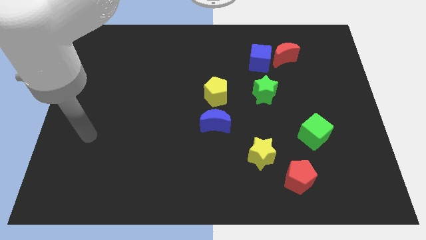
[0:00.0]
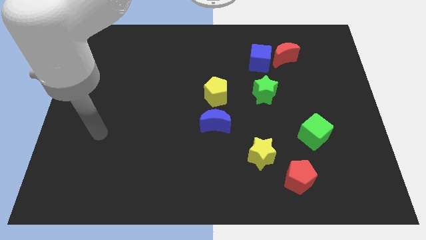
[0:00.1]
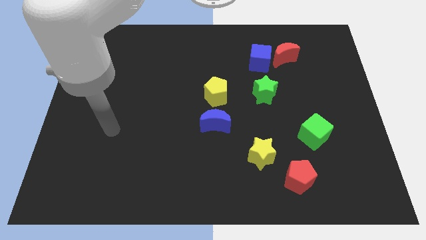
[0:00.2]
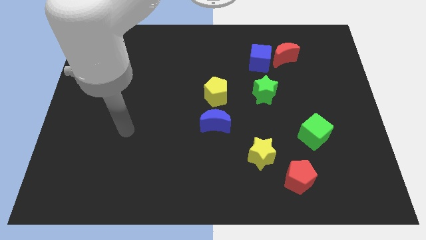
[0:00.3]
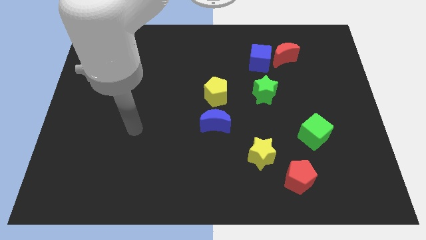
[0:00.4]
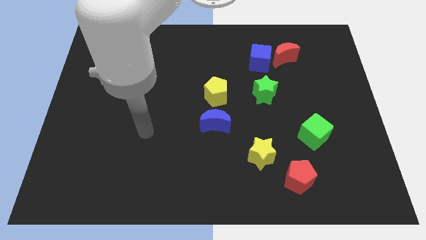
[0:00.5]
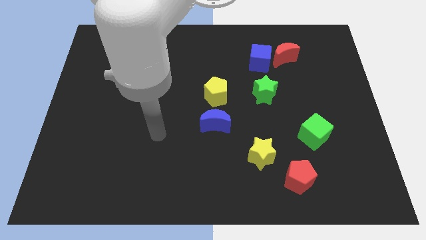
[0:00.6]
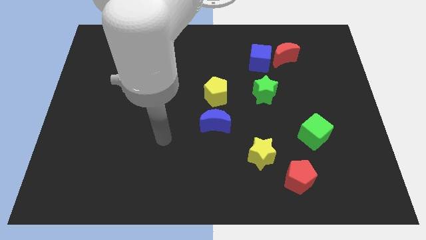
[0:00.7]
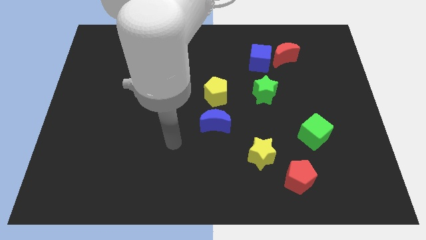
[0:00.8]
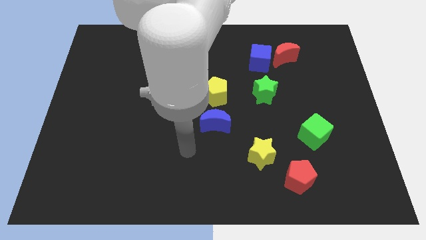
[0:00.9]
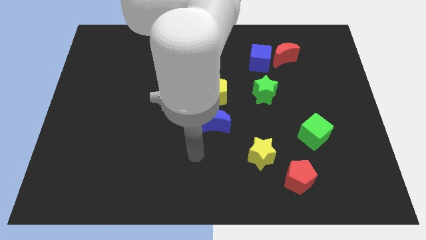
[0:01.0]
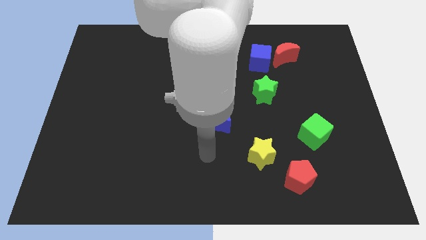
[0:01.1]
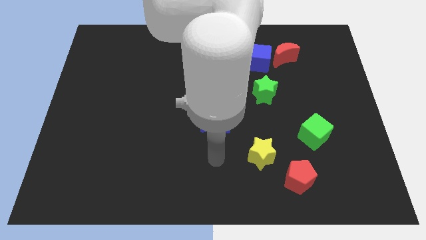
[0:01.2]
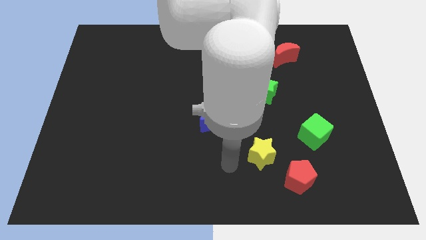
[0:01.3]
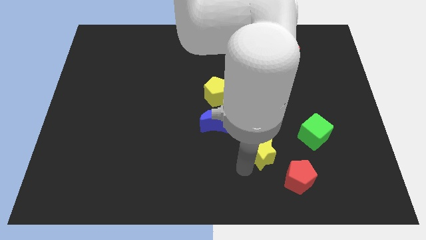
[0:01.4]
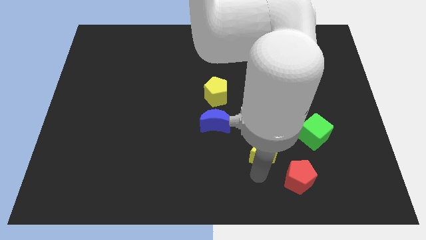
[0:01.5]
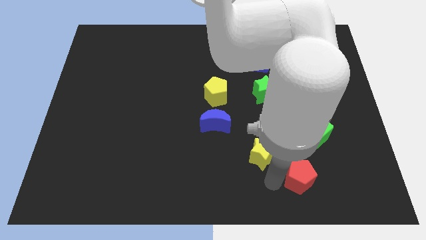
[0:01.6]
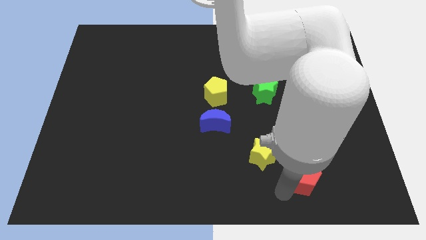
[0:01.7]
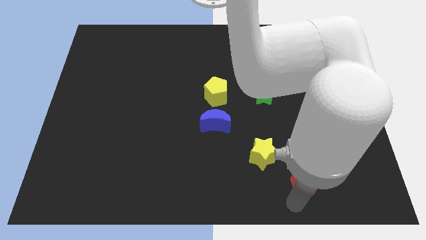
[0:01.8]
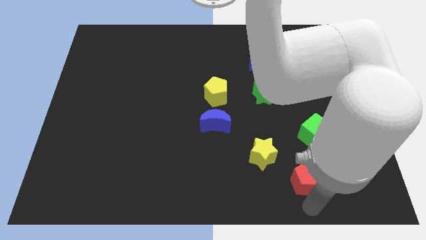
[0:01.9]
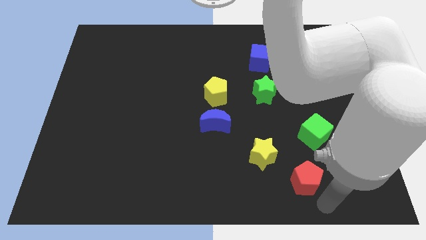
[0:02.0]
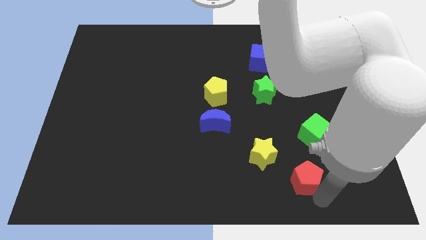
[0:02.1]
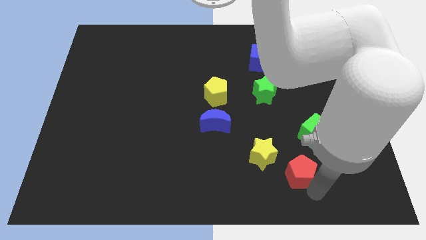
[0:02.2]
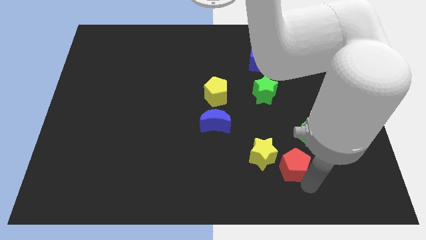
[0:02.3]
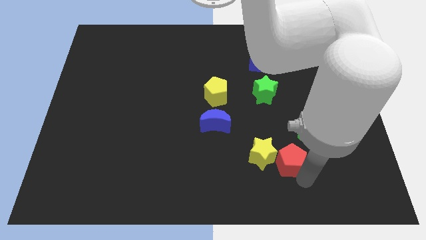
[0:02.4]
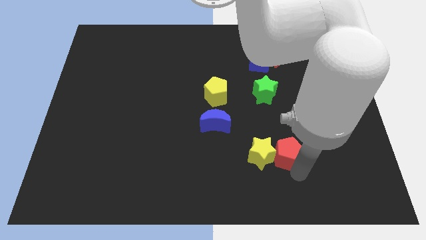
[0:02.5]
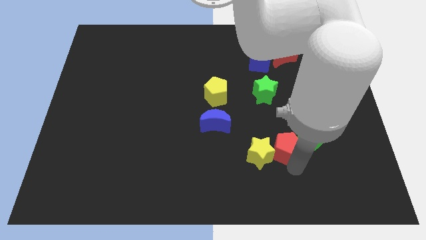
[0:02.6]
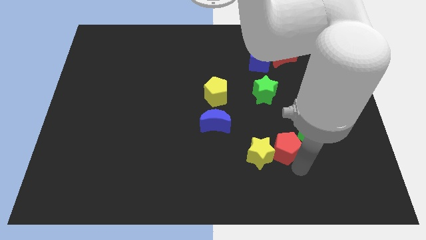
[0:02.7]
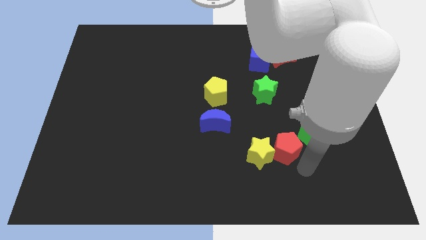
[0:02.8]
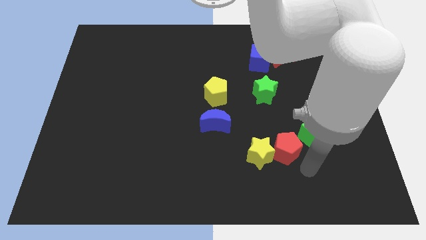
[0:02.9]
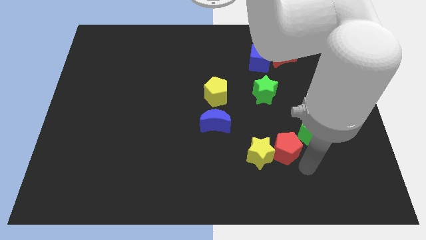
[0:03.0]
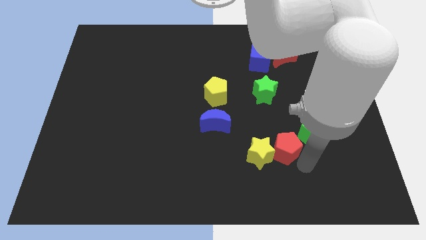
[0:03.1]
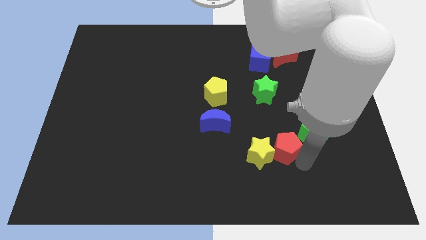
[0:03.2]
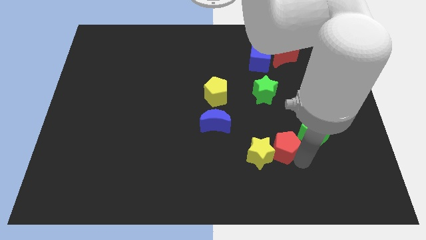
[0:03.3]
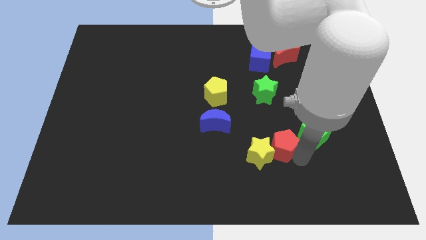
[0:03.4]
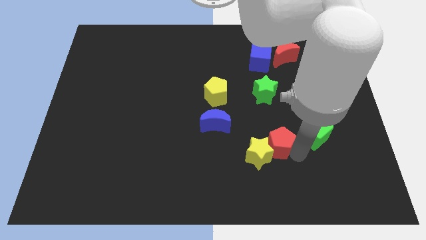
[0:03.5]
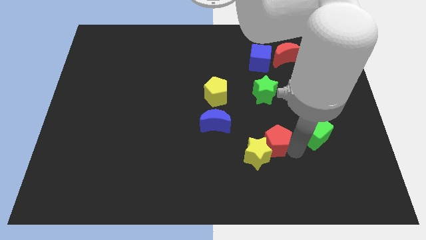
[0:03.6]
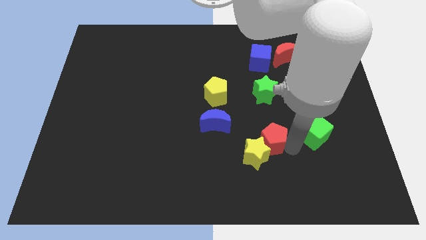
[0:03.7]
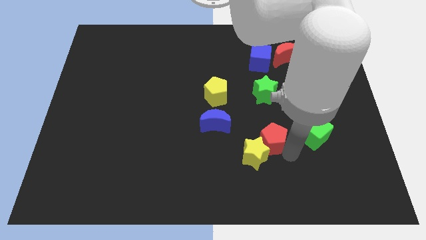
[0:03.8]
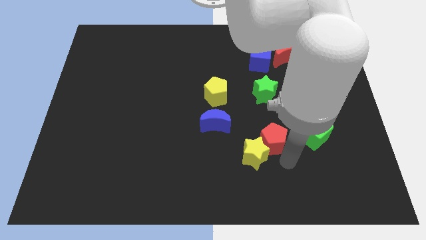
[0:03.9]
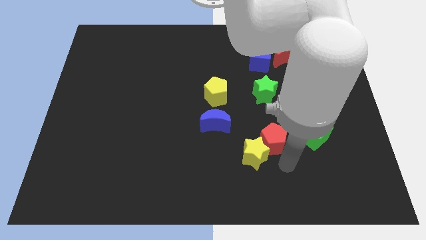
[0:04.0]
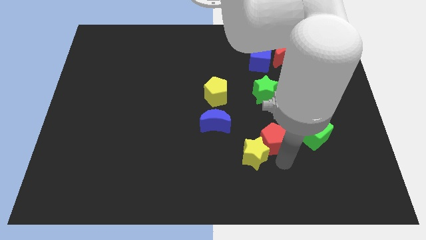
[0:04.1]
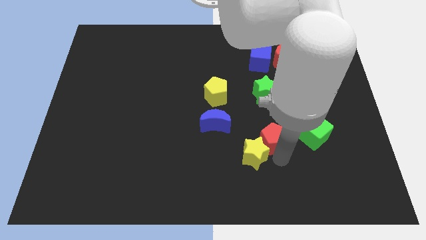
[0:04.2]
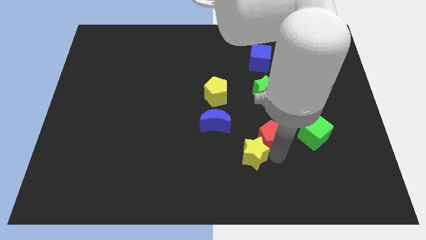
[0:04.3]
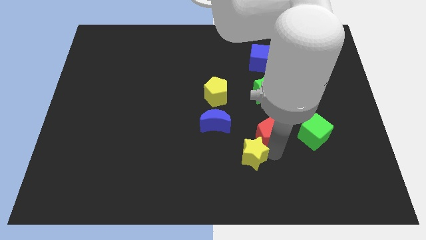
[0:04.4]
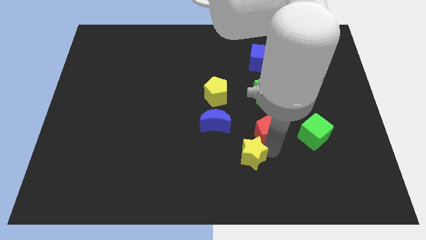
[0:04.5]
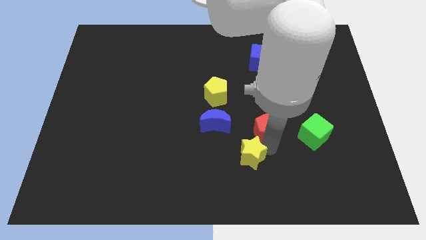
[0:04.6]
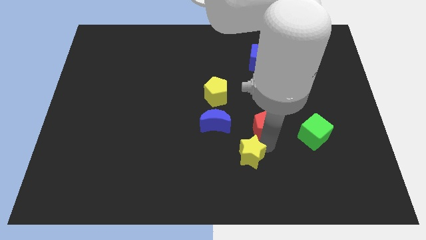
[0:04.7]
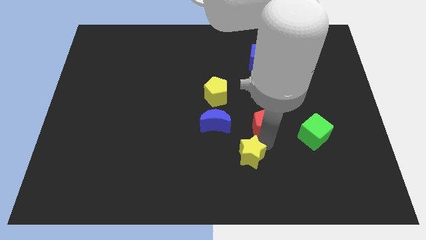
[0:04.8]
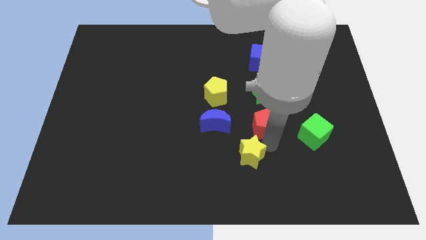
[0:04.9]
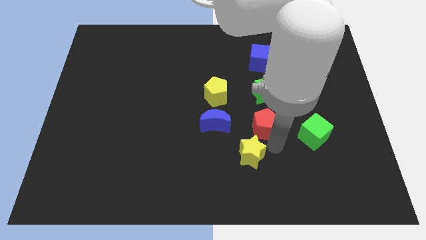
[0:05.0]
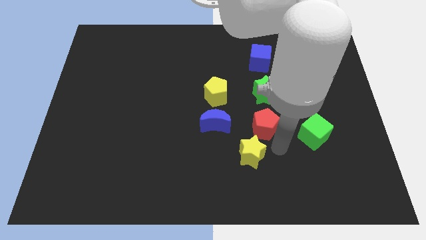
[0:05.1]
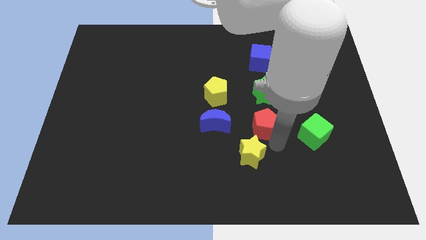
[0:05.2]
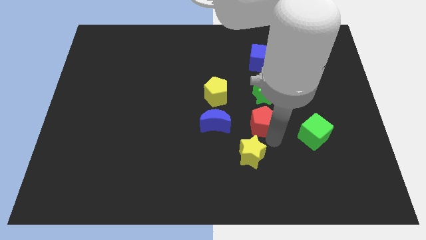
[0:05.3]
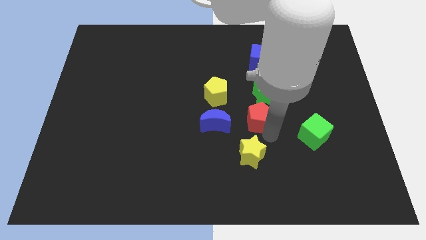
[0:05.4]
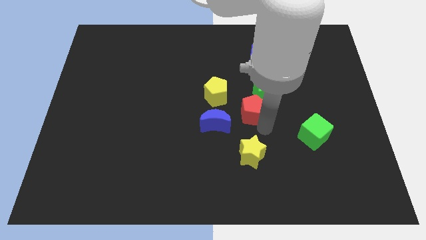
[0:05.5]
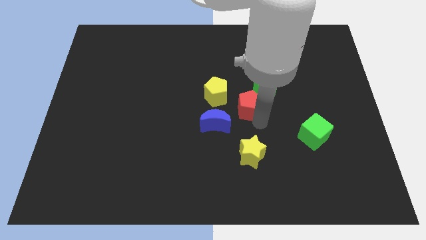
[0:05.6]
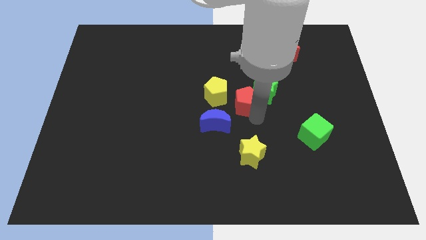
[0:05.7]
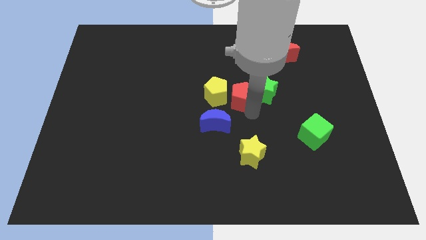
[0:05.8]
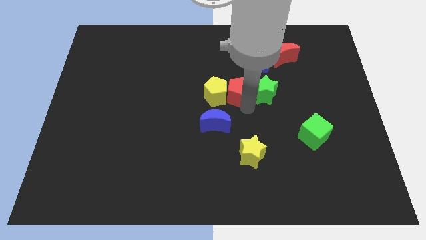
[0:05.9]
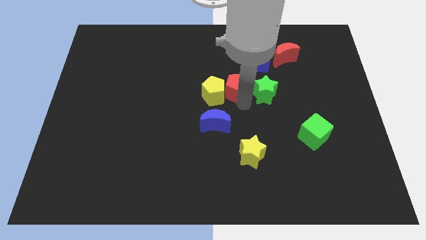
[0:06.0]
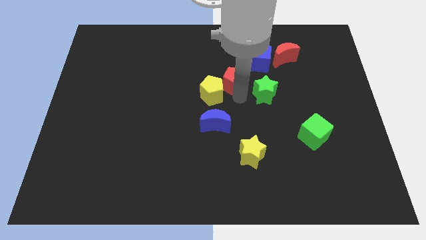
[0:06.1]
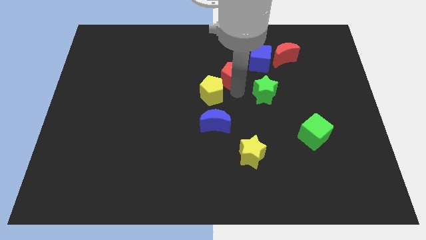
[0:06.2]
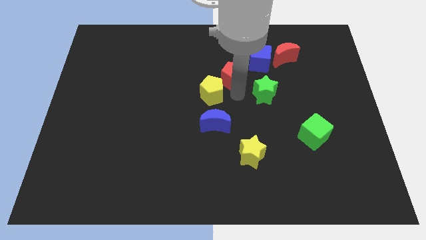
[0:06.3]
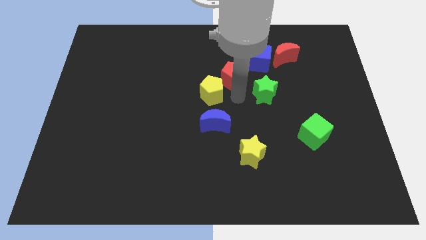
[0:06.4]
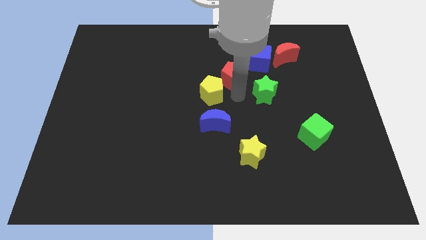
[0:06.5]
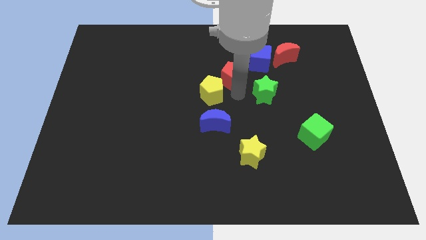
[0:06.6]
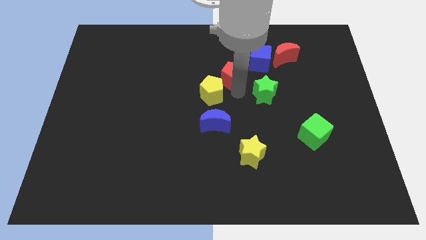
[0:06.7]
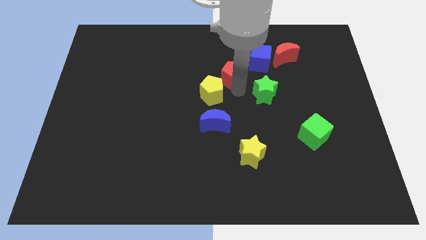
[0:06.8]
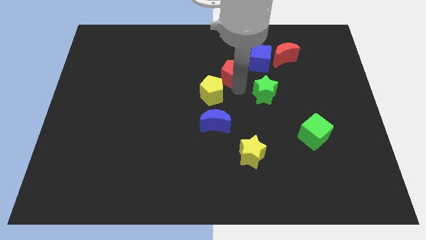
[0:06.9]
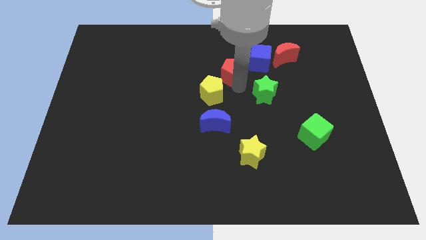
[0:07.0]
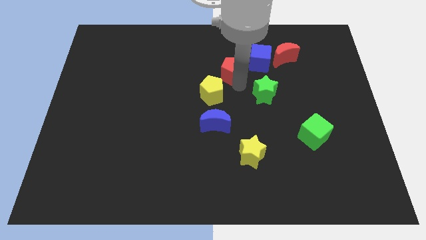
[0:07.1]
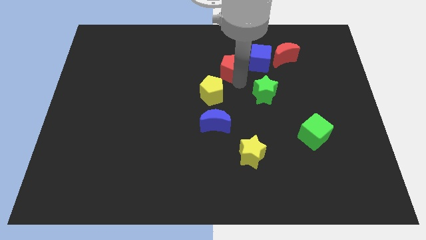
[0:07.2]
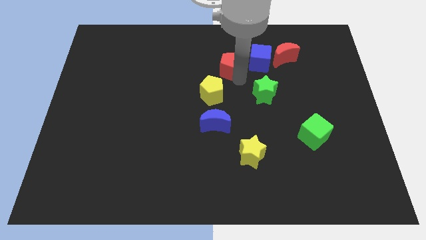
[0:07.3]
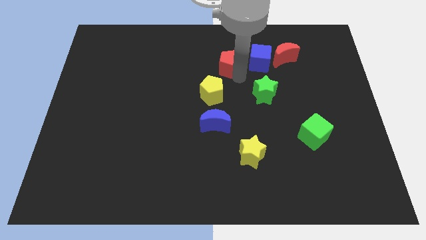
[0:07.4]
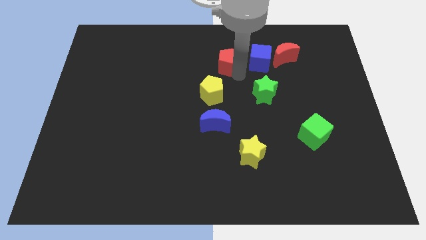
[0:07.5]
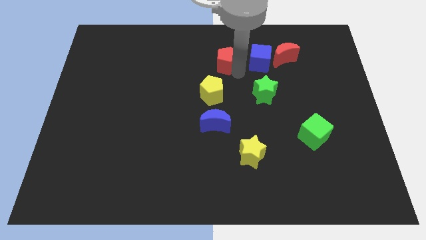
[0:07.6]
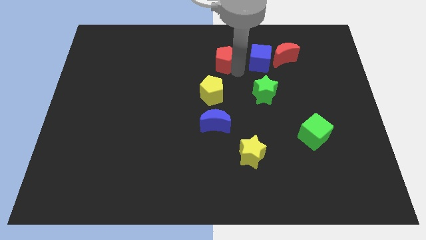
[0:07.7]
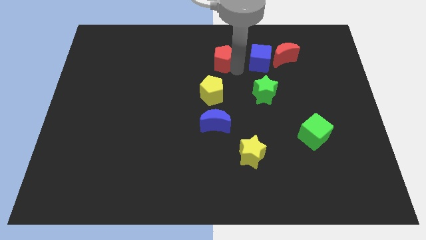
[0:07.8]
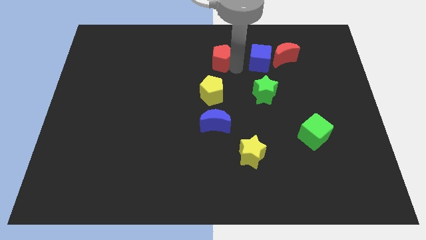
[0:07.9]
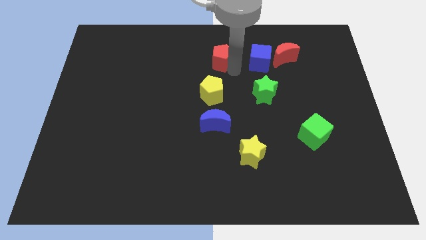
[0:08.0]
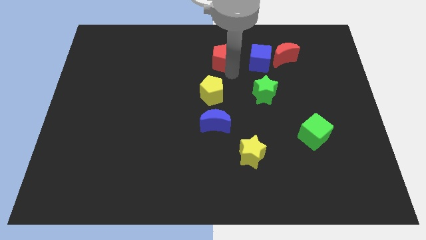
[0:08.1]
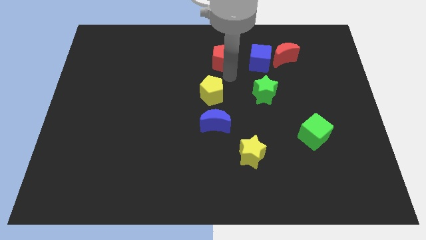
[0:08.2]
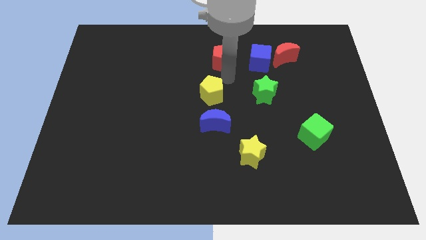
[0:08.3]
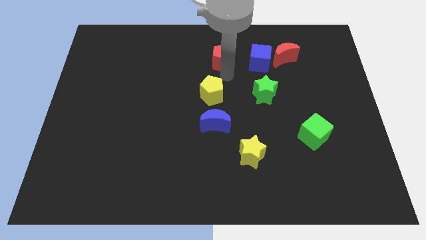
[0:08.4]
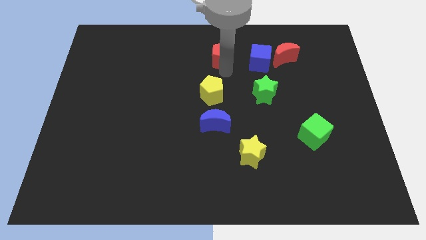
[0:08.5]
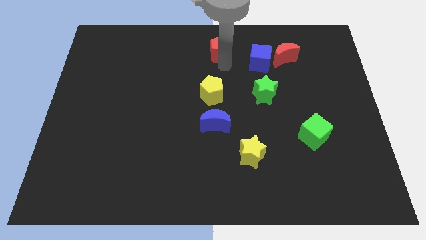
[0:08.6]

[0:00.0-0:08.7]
slide the red pentagon to the top side
